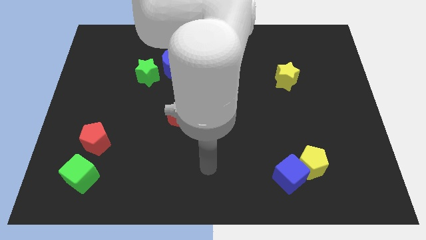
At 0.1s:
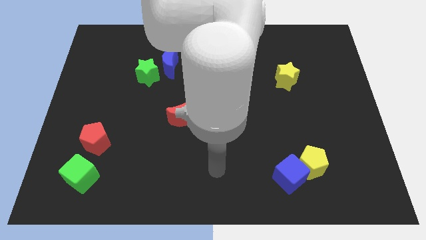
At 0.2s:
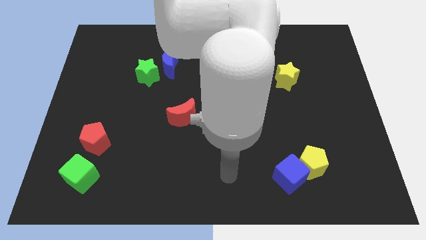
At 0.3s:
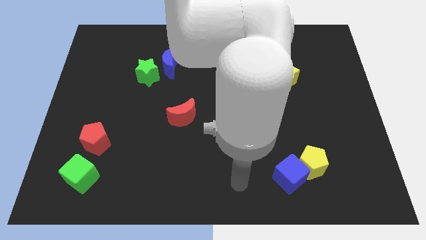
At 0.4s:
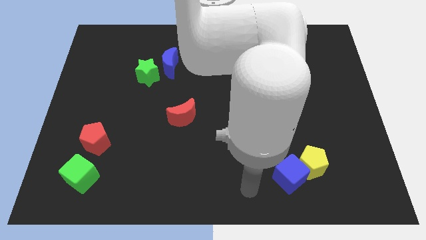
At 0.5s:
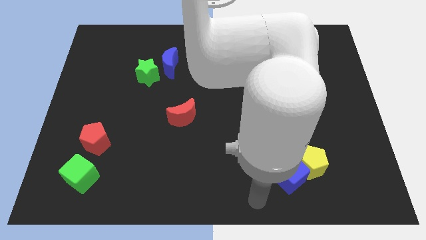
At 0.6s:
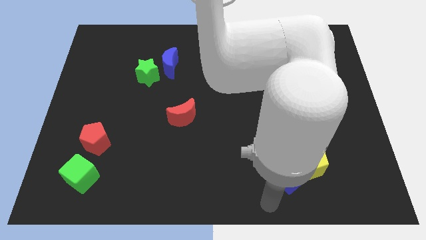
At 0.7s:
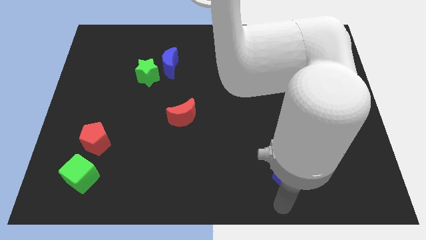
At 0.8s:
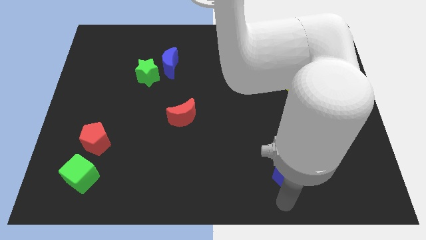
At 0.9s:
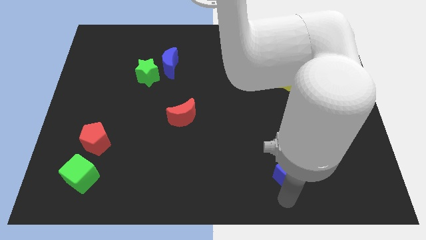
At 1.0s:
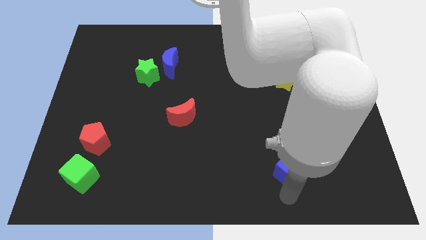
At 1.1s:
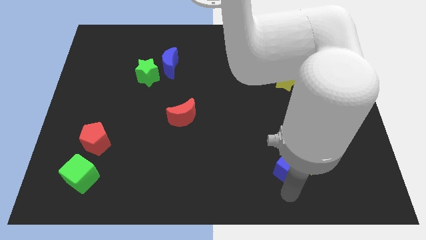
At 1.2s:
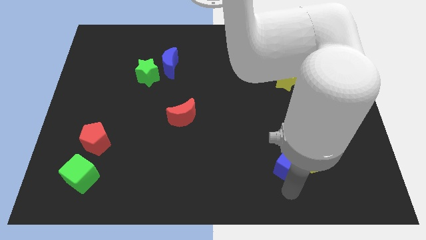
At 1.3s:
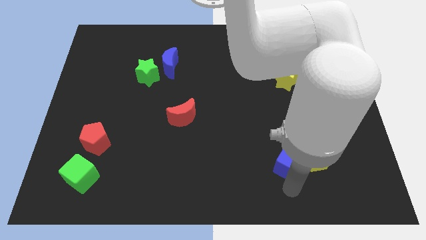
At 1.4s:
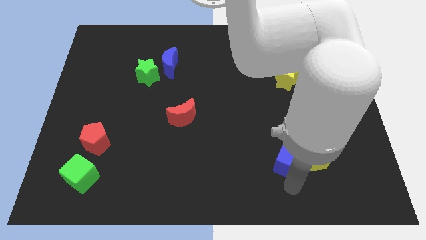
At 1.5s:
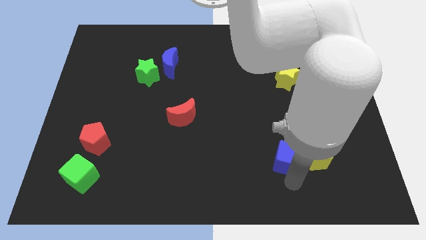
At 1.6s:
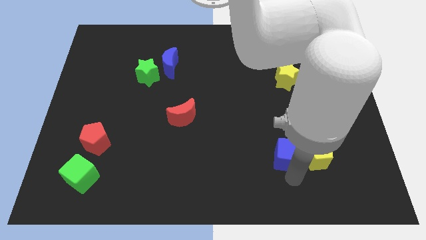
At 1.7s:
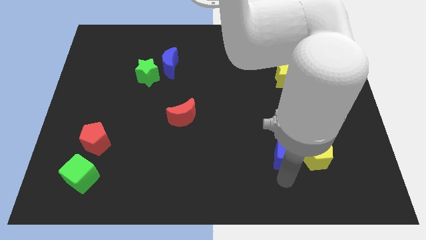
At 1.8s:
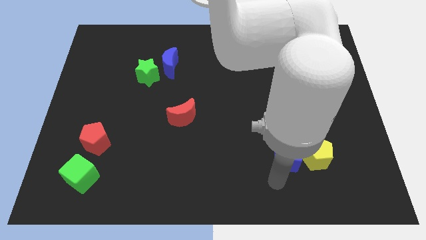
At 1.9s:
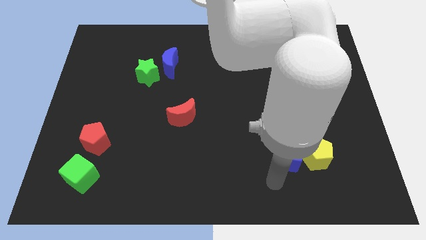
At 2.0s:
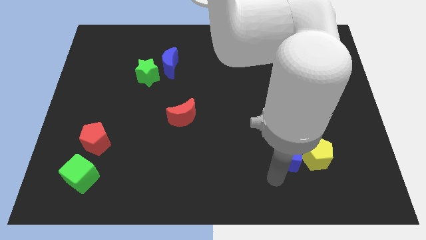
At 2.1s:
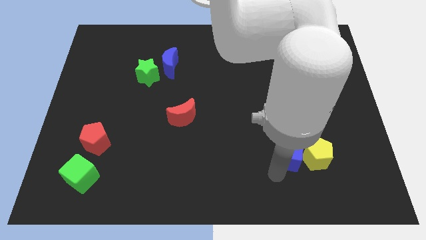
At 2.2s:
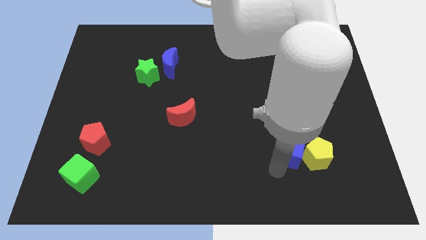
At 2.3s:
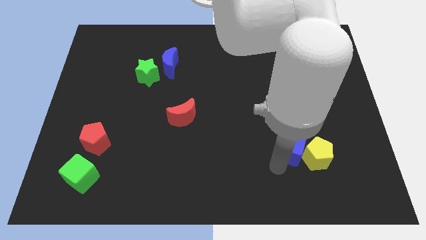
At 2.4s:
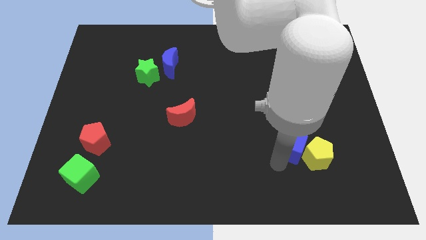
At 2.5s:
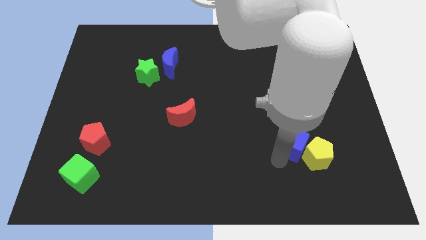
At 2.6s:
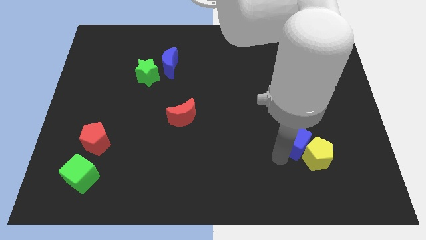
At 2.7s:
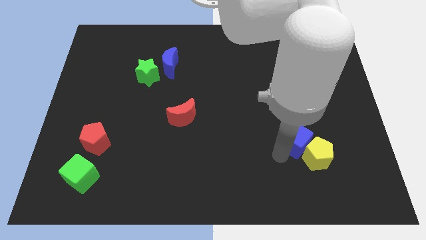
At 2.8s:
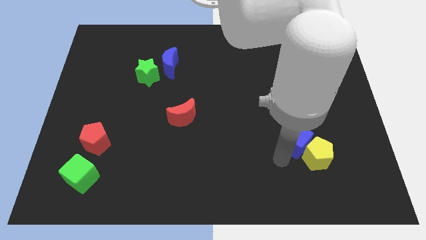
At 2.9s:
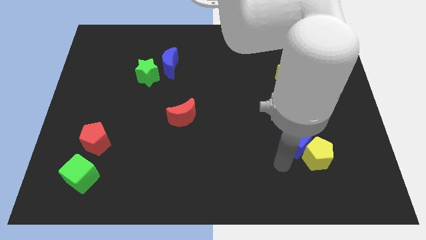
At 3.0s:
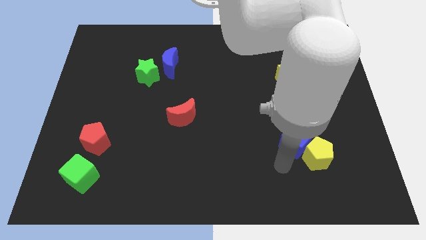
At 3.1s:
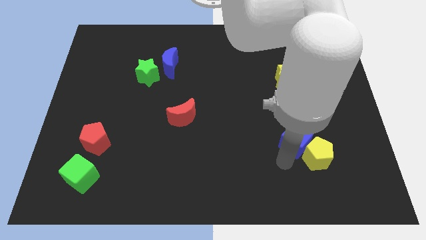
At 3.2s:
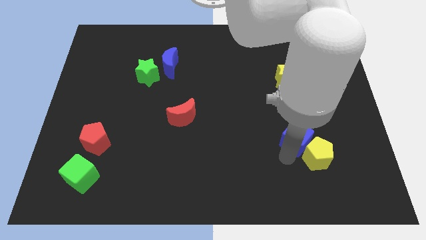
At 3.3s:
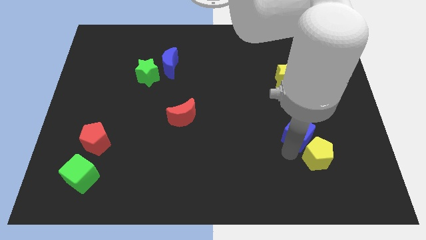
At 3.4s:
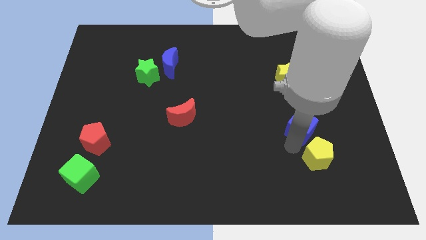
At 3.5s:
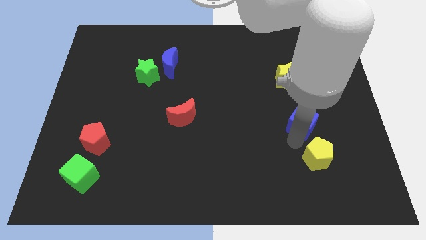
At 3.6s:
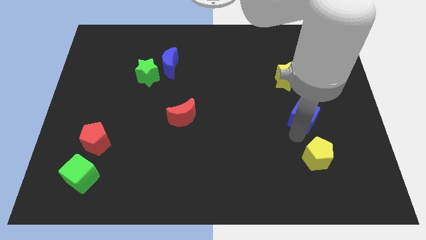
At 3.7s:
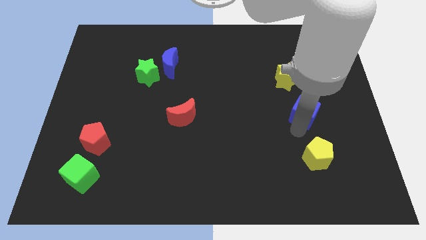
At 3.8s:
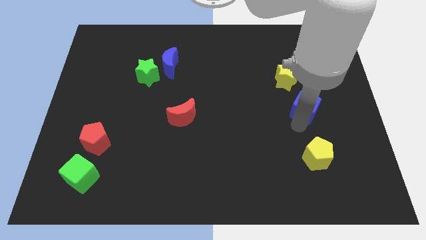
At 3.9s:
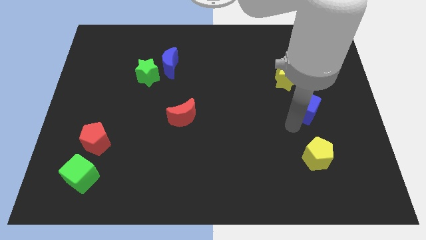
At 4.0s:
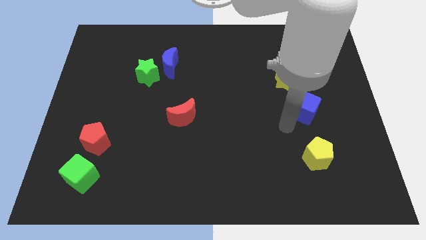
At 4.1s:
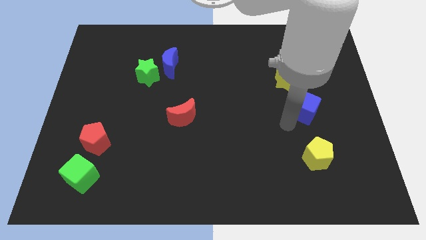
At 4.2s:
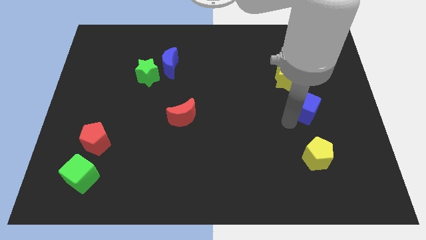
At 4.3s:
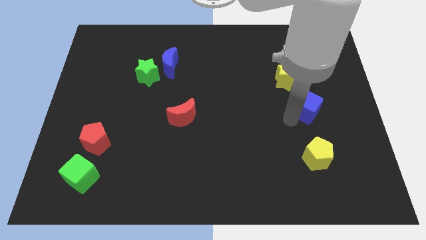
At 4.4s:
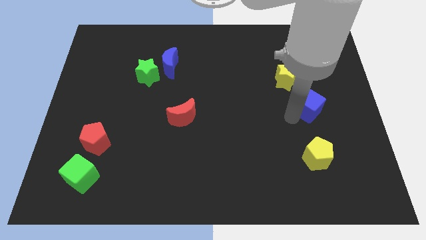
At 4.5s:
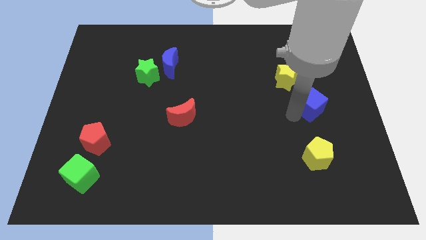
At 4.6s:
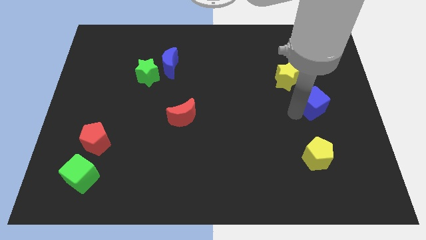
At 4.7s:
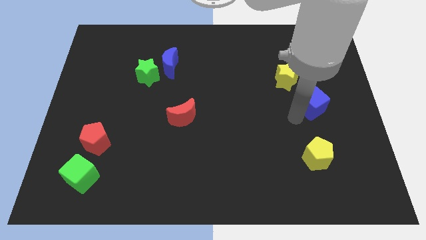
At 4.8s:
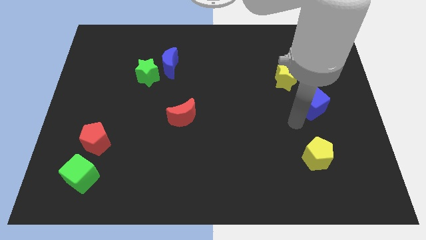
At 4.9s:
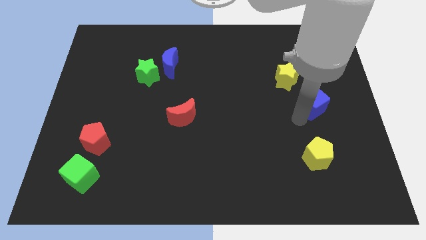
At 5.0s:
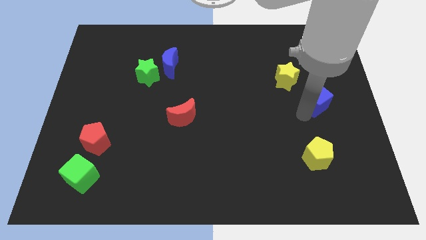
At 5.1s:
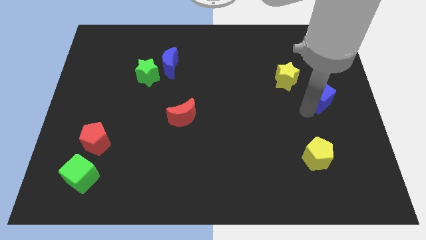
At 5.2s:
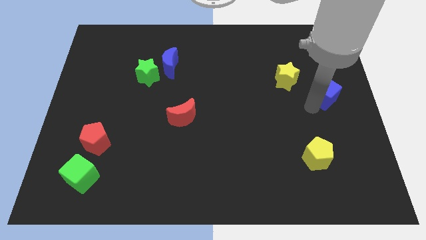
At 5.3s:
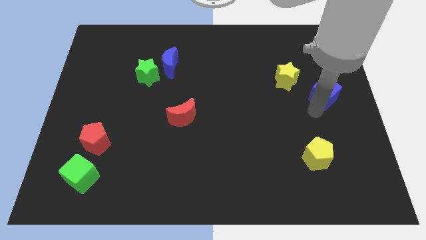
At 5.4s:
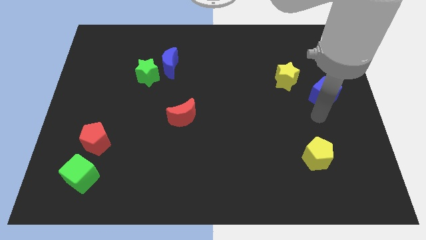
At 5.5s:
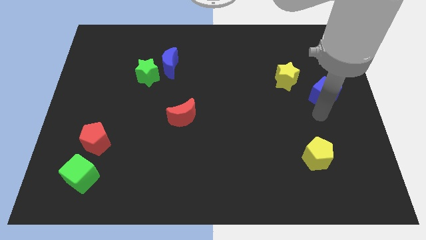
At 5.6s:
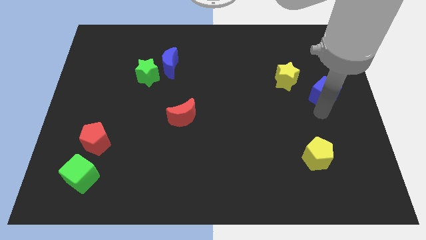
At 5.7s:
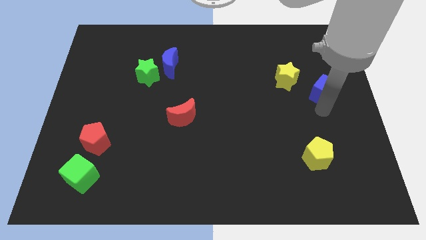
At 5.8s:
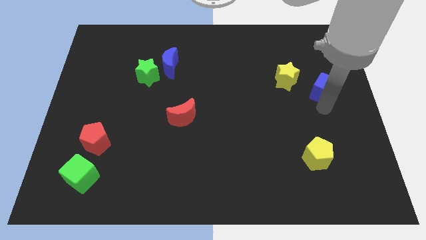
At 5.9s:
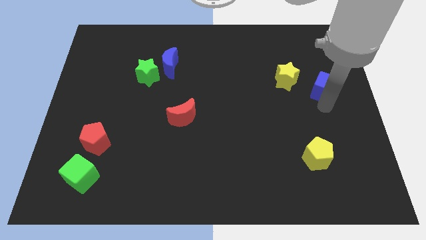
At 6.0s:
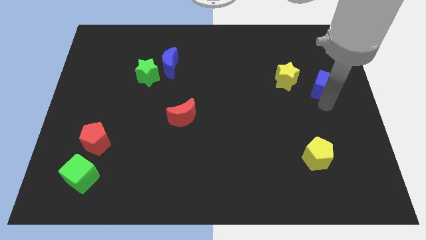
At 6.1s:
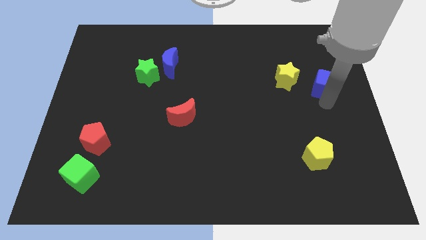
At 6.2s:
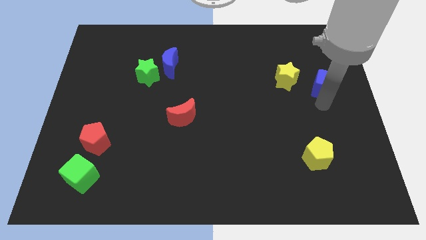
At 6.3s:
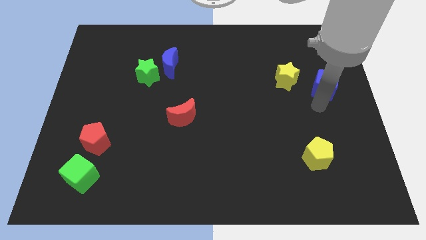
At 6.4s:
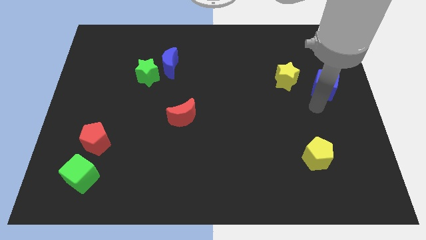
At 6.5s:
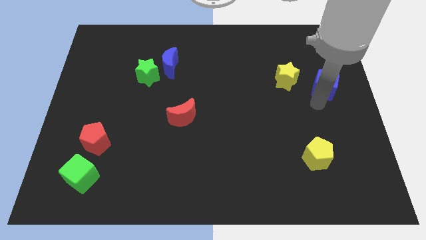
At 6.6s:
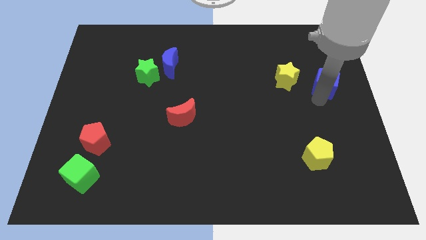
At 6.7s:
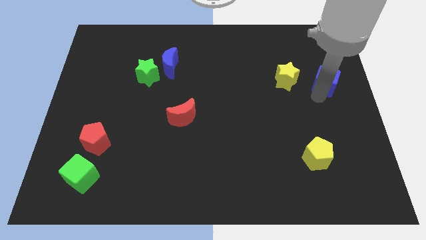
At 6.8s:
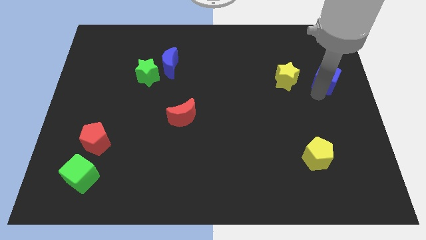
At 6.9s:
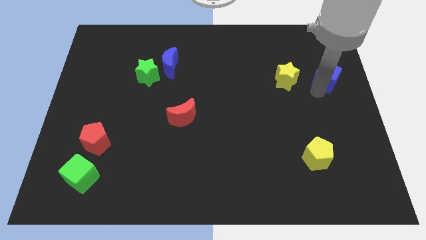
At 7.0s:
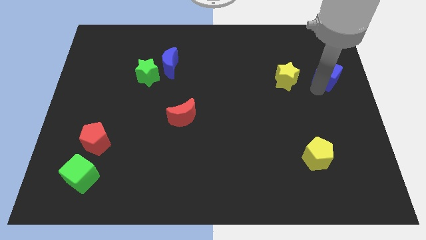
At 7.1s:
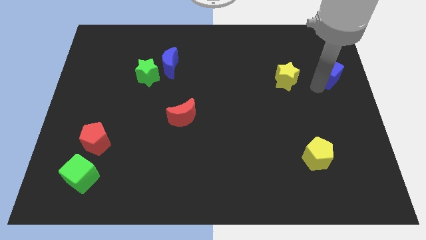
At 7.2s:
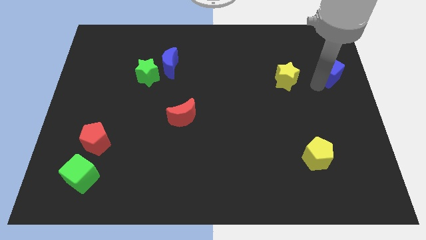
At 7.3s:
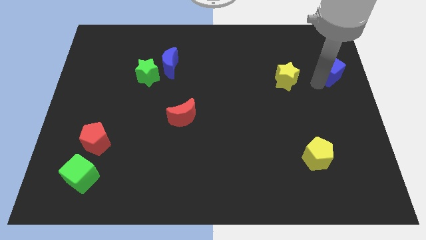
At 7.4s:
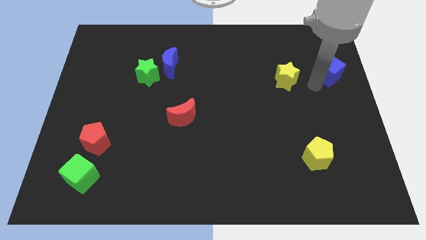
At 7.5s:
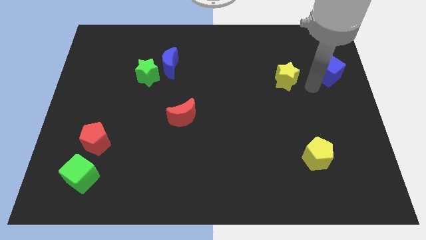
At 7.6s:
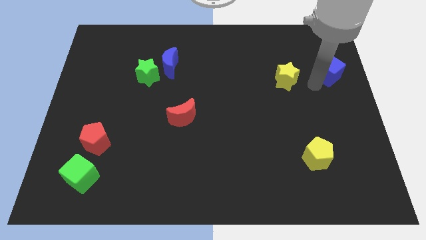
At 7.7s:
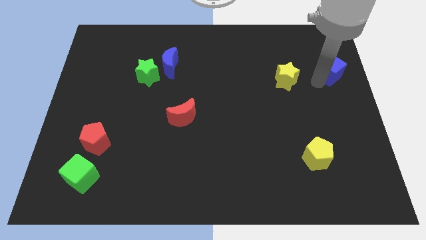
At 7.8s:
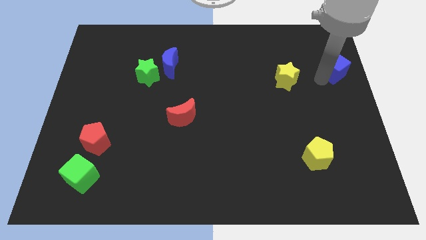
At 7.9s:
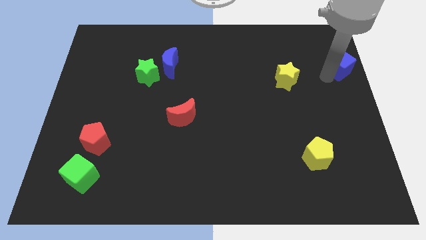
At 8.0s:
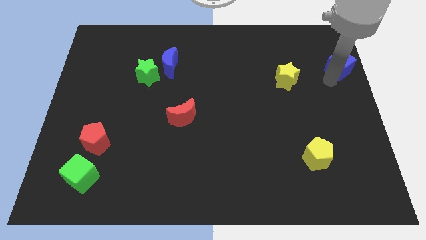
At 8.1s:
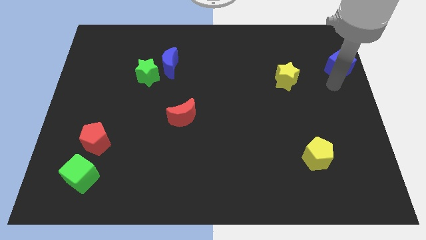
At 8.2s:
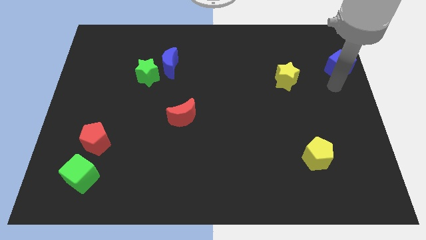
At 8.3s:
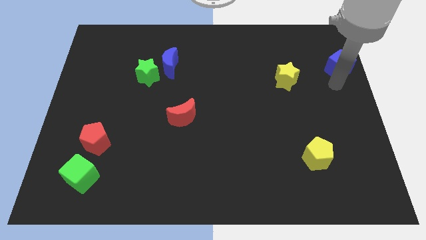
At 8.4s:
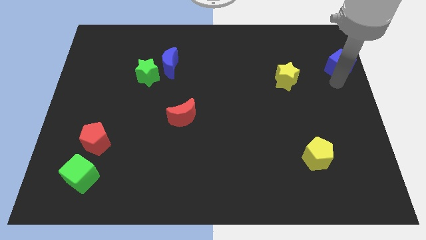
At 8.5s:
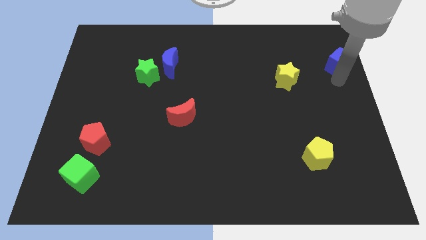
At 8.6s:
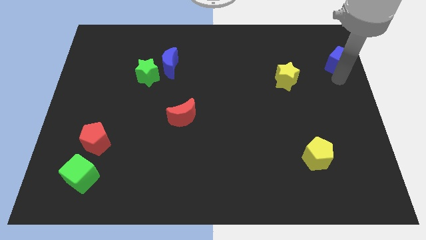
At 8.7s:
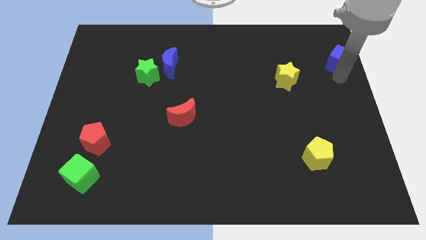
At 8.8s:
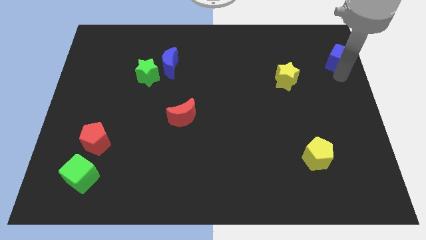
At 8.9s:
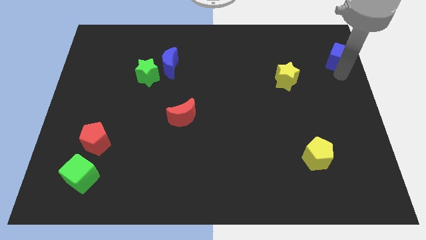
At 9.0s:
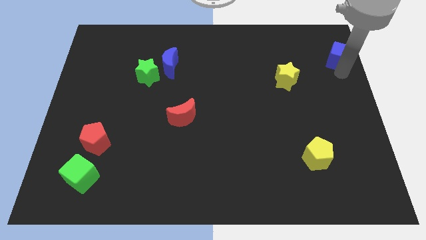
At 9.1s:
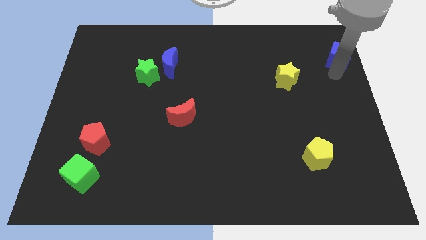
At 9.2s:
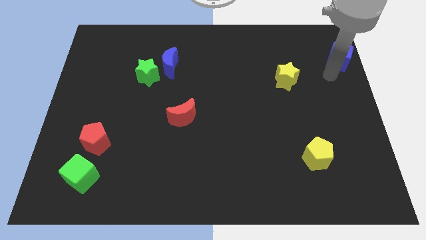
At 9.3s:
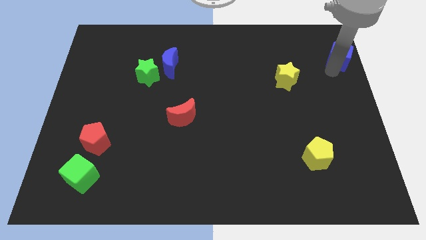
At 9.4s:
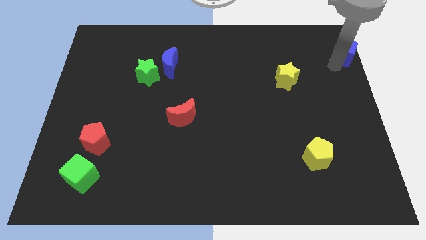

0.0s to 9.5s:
put the blue cube to the upper right corner
